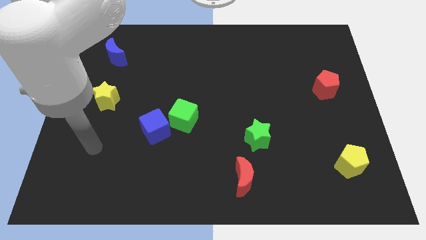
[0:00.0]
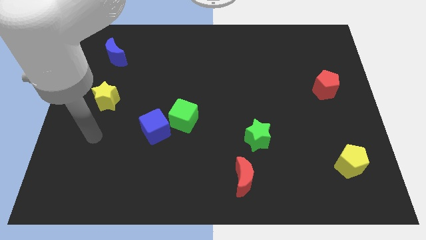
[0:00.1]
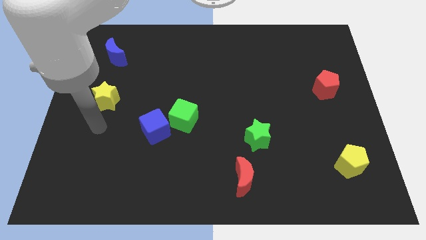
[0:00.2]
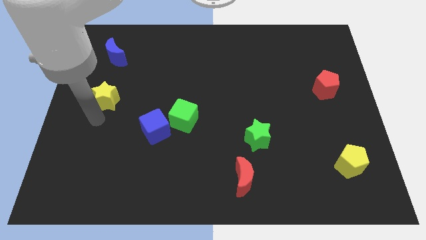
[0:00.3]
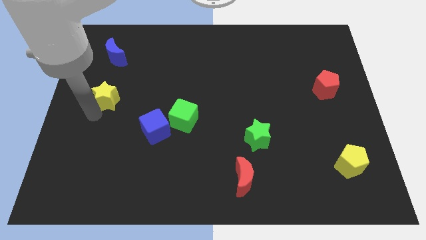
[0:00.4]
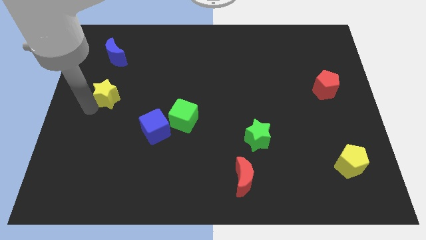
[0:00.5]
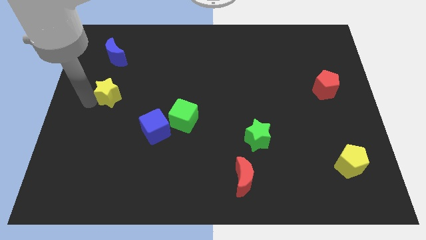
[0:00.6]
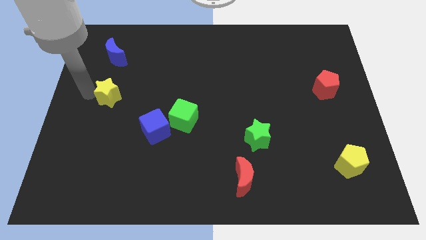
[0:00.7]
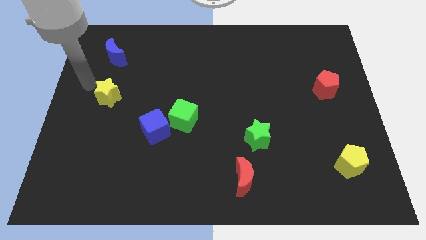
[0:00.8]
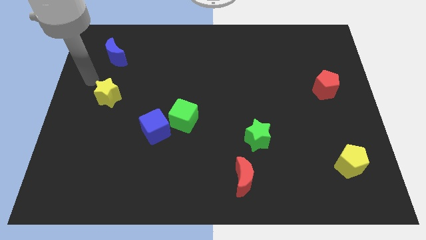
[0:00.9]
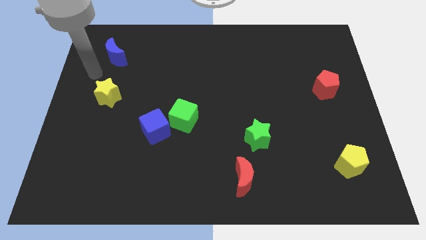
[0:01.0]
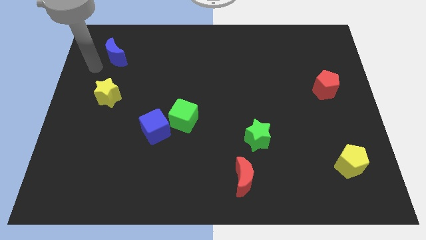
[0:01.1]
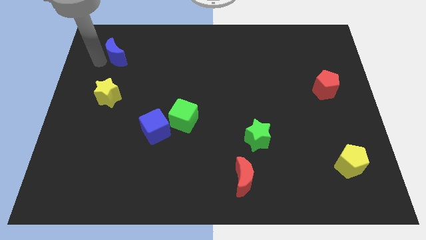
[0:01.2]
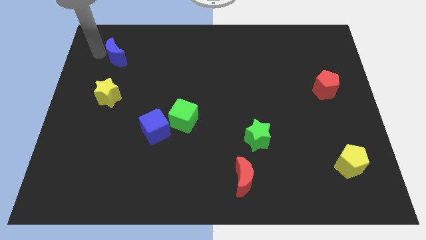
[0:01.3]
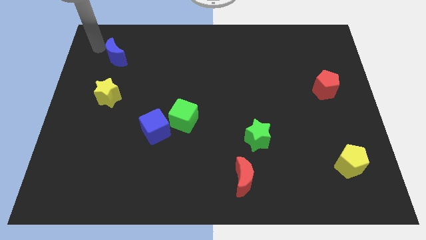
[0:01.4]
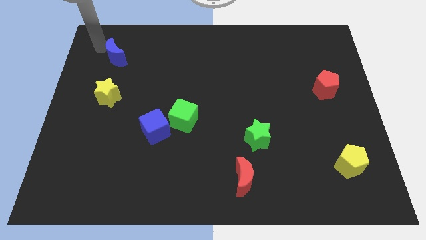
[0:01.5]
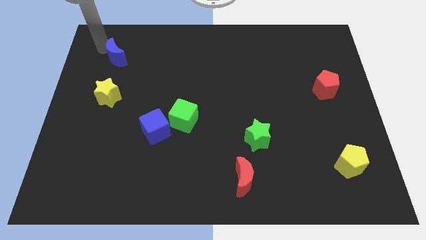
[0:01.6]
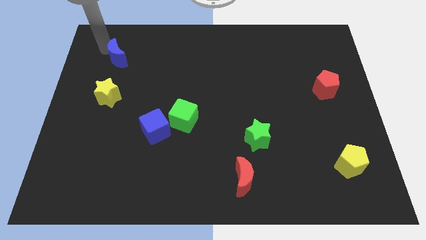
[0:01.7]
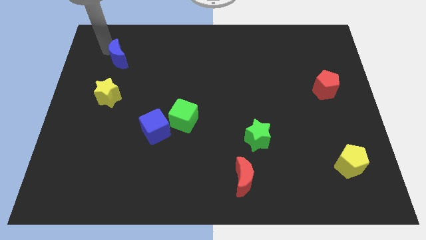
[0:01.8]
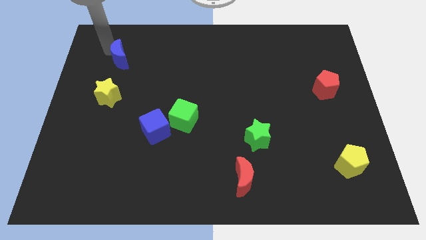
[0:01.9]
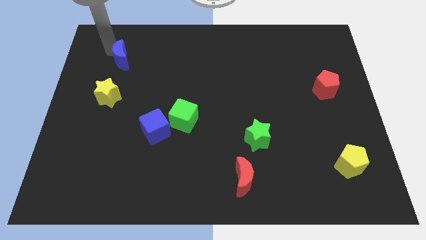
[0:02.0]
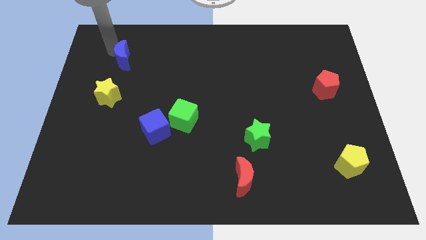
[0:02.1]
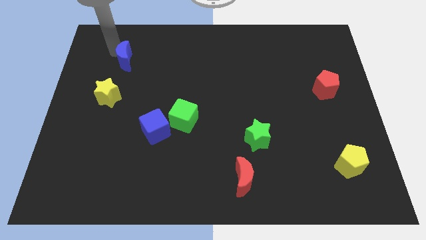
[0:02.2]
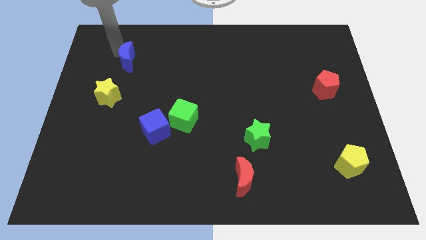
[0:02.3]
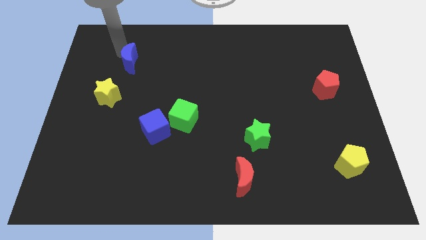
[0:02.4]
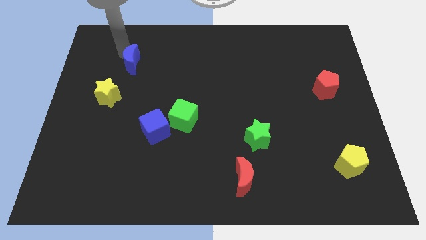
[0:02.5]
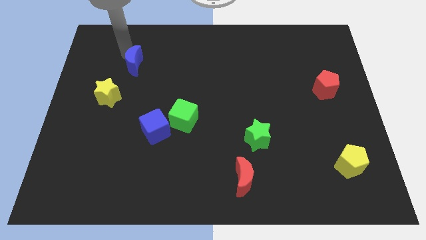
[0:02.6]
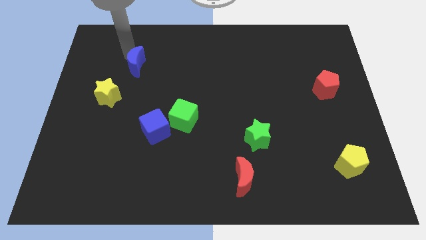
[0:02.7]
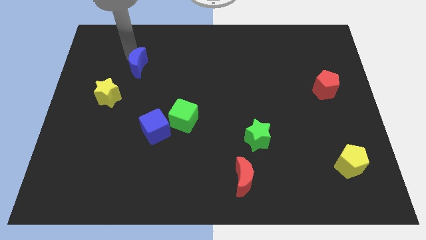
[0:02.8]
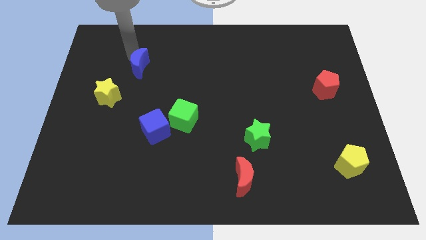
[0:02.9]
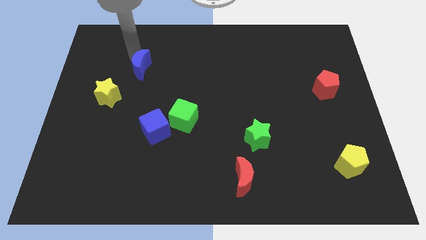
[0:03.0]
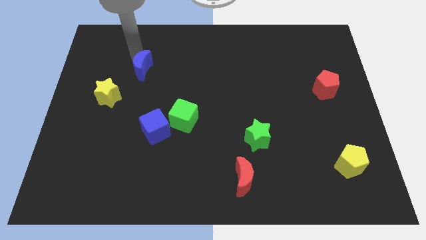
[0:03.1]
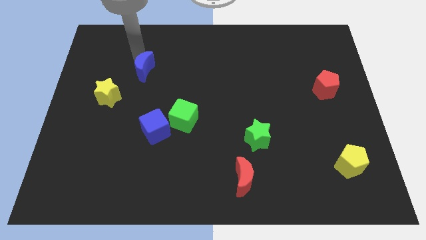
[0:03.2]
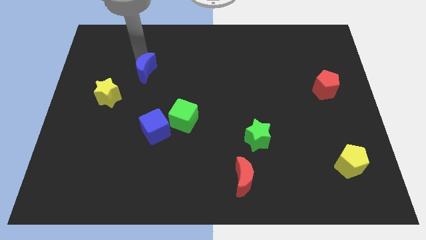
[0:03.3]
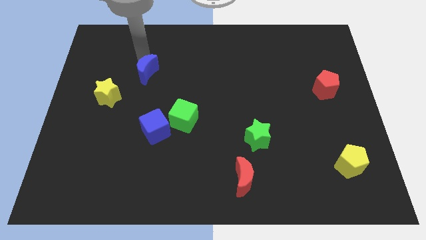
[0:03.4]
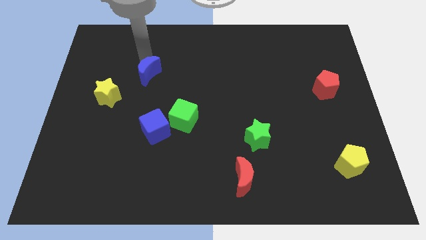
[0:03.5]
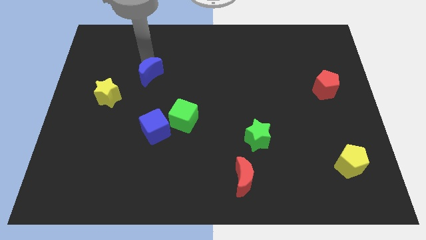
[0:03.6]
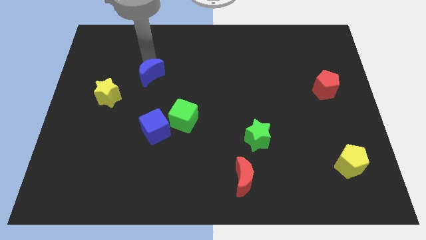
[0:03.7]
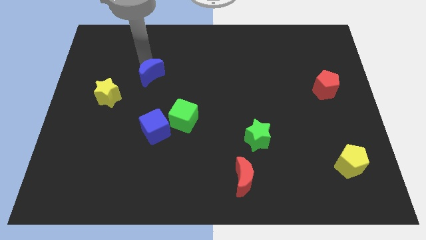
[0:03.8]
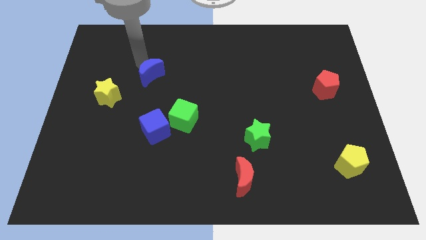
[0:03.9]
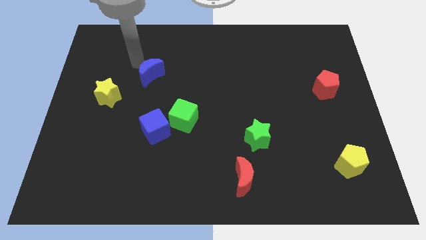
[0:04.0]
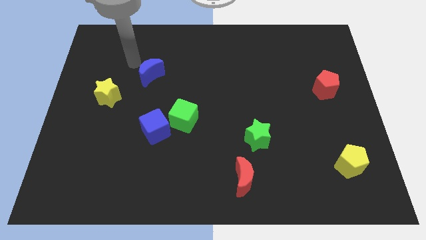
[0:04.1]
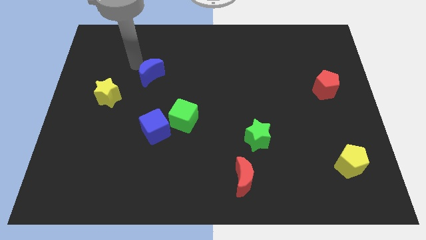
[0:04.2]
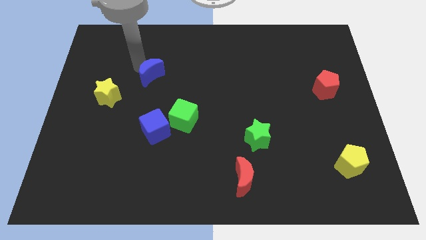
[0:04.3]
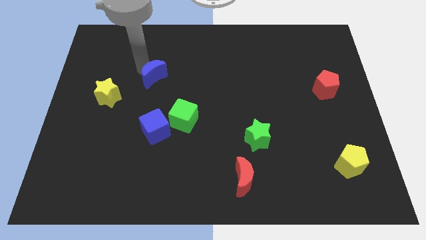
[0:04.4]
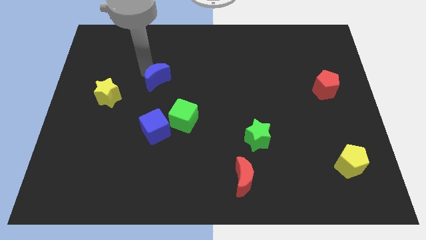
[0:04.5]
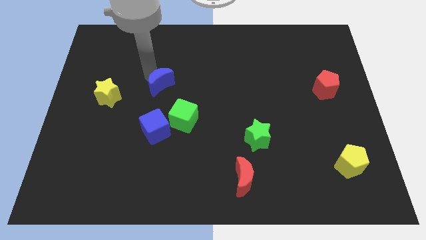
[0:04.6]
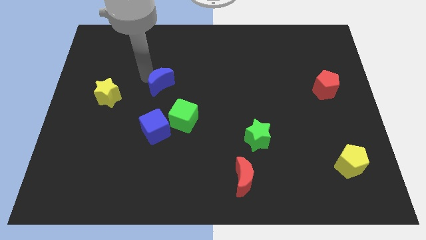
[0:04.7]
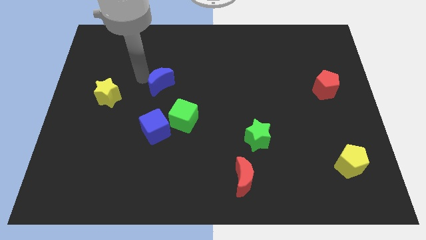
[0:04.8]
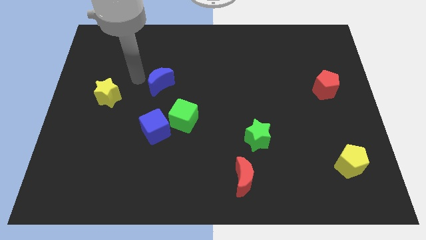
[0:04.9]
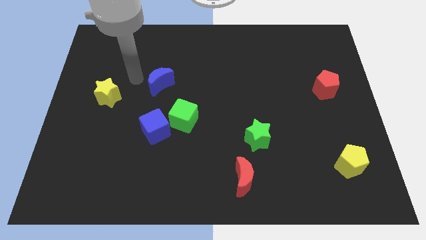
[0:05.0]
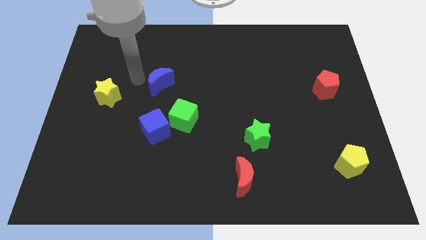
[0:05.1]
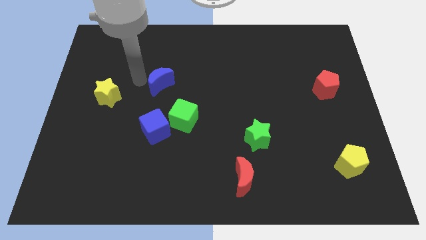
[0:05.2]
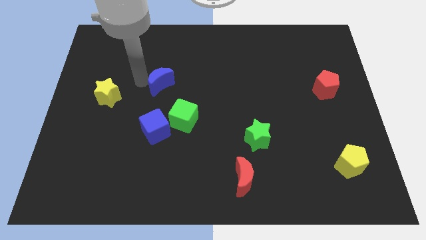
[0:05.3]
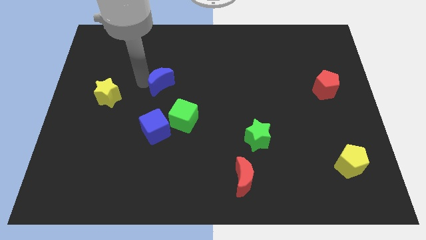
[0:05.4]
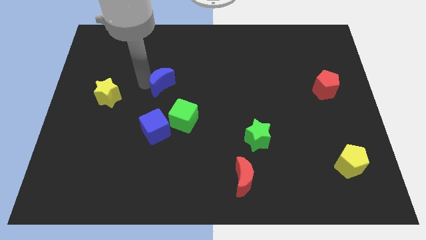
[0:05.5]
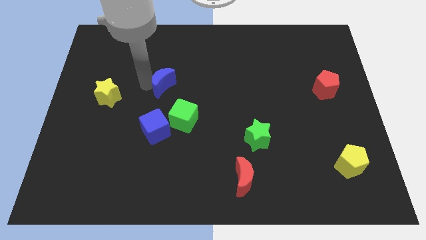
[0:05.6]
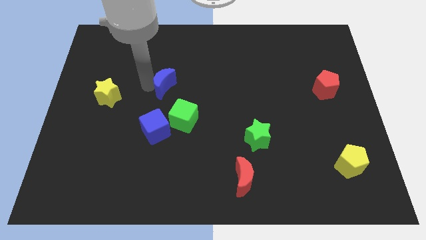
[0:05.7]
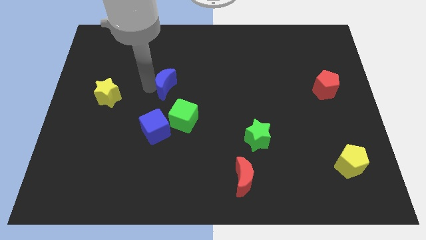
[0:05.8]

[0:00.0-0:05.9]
move the blue moon to the center of the board
